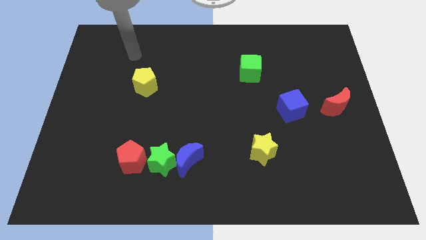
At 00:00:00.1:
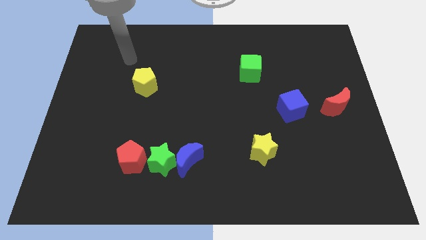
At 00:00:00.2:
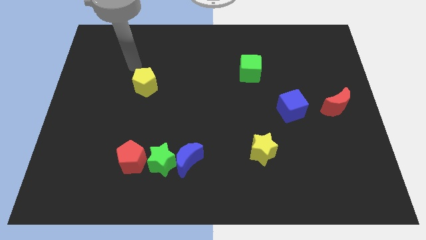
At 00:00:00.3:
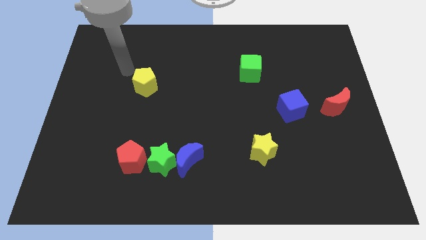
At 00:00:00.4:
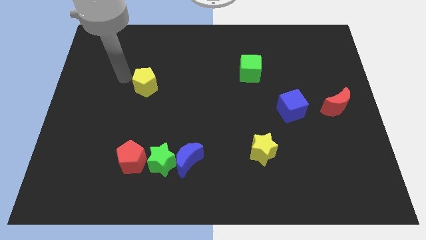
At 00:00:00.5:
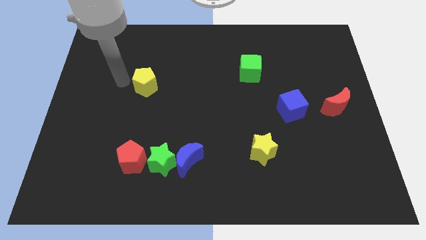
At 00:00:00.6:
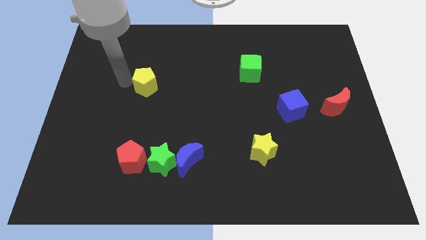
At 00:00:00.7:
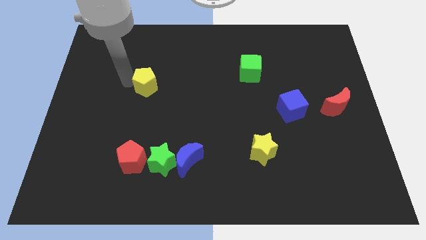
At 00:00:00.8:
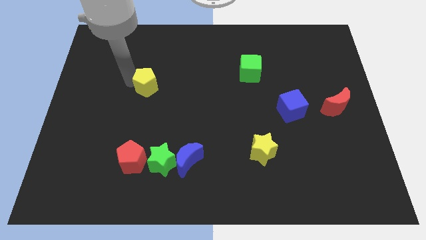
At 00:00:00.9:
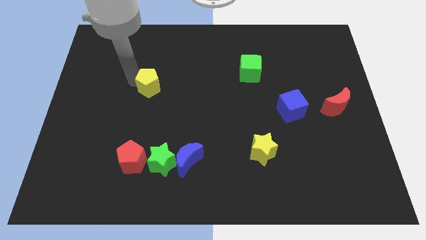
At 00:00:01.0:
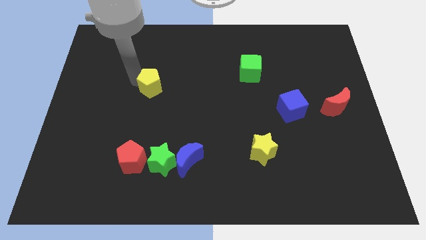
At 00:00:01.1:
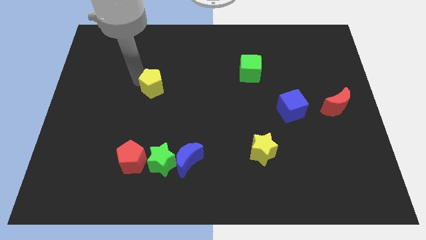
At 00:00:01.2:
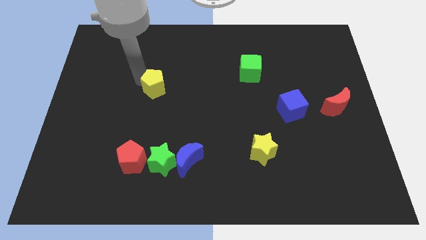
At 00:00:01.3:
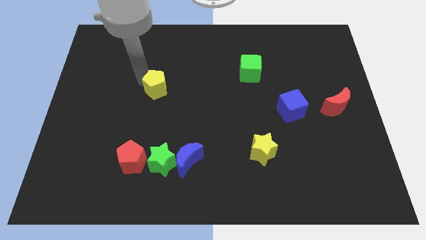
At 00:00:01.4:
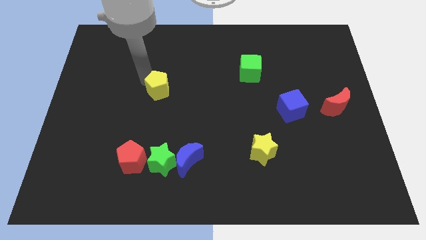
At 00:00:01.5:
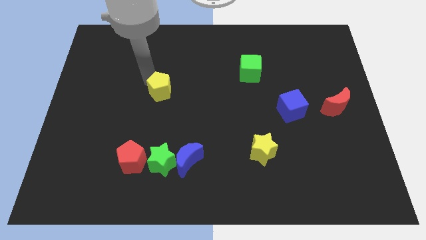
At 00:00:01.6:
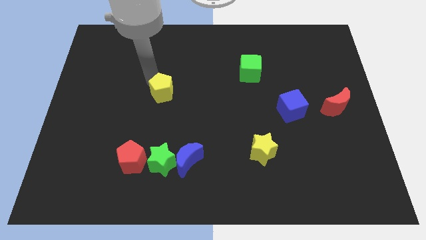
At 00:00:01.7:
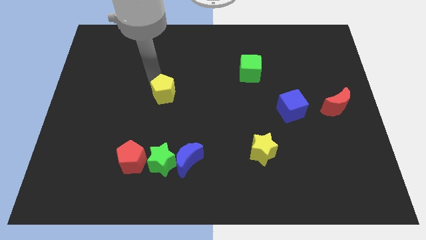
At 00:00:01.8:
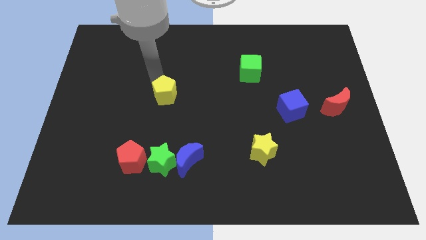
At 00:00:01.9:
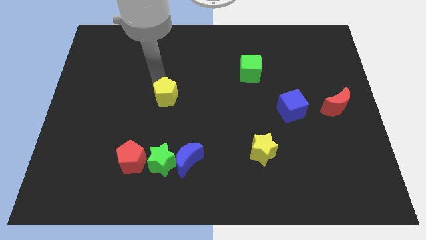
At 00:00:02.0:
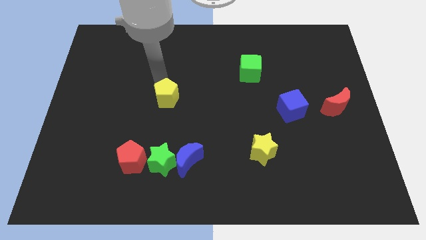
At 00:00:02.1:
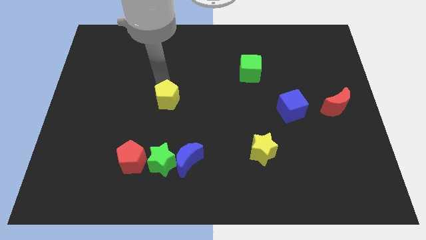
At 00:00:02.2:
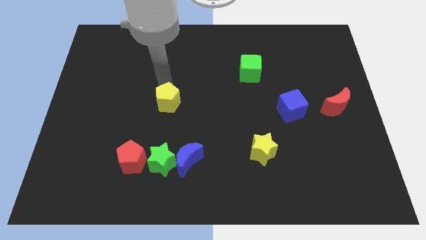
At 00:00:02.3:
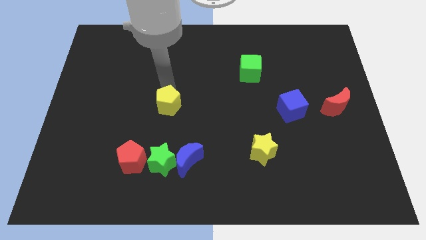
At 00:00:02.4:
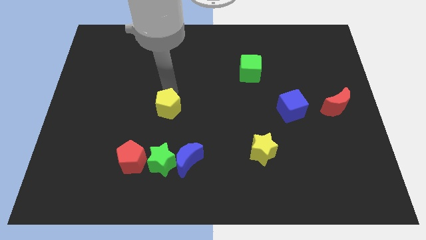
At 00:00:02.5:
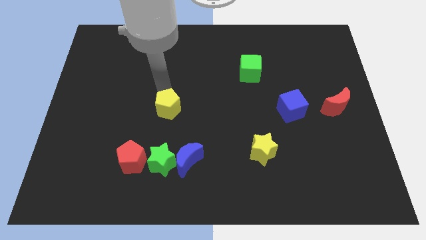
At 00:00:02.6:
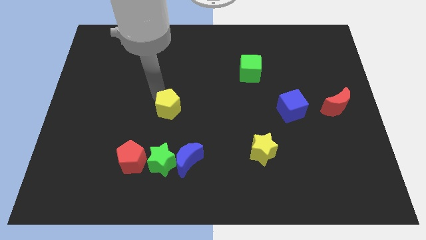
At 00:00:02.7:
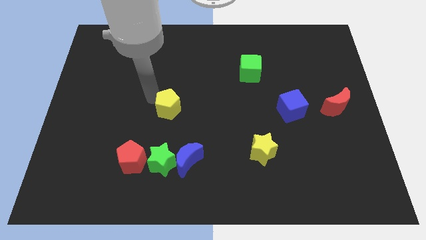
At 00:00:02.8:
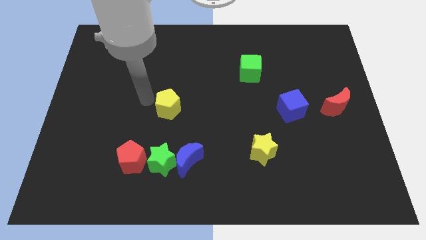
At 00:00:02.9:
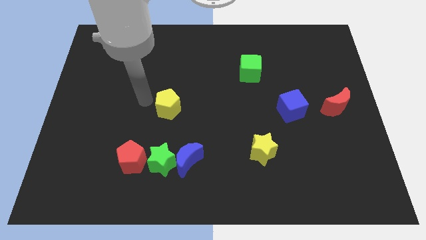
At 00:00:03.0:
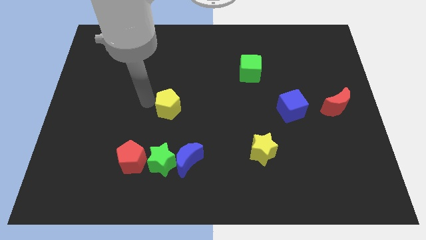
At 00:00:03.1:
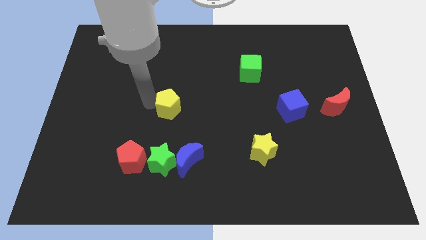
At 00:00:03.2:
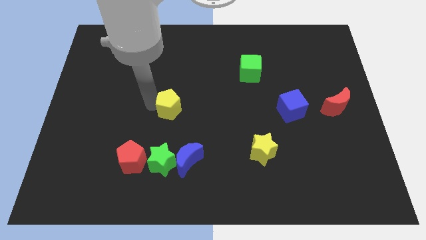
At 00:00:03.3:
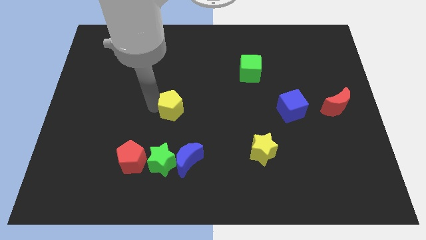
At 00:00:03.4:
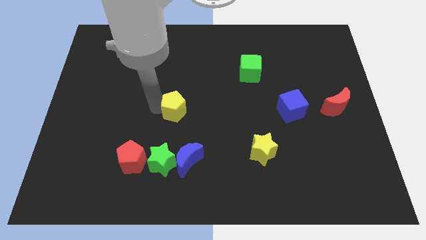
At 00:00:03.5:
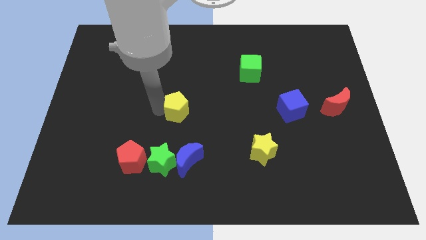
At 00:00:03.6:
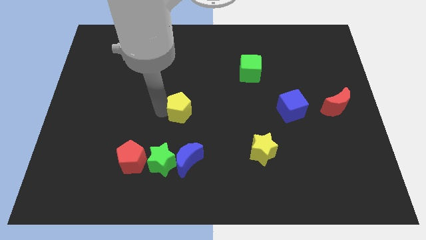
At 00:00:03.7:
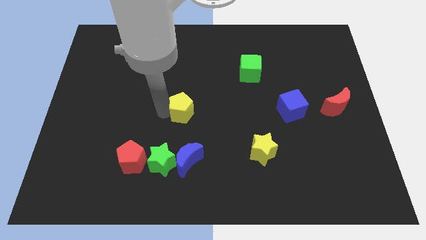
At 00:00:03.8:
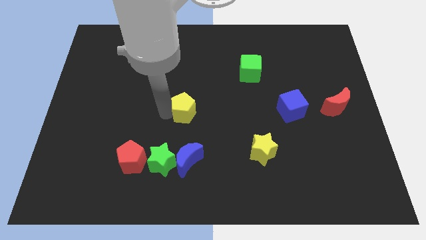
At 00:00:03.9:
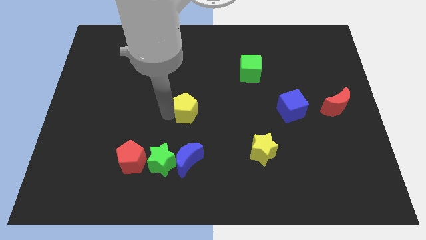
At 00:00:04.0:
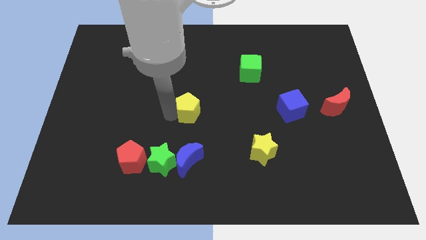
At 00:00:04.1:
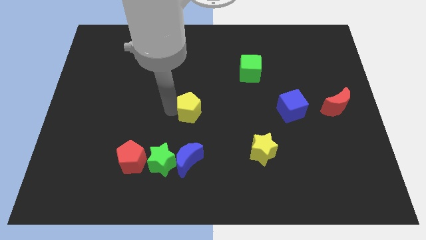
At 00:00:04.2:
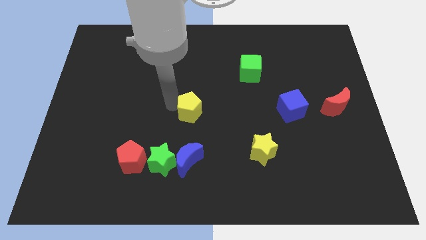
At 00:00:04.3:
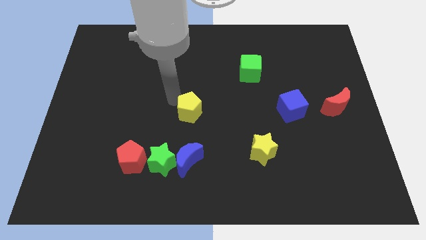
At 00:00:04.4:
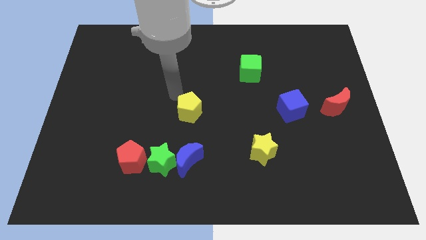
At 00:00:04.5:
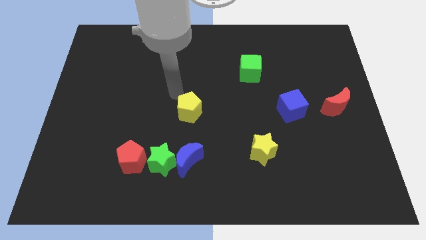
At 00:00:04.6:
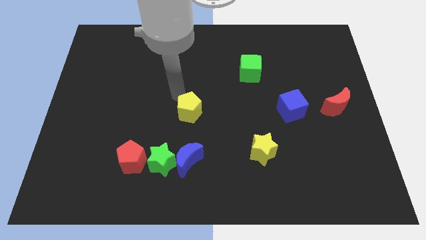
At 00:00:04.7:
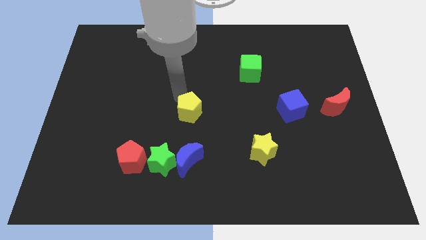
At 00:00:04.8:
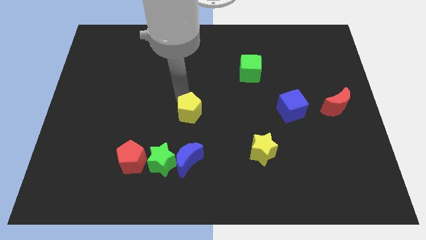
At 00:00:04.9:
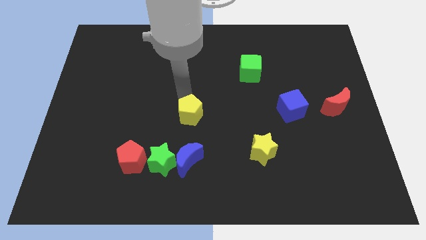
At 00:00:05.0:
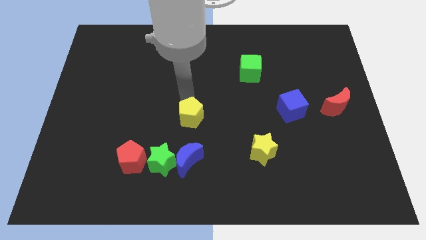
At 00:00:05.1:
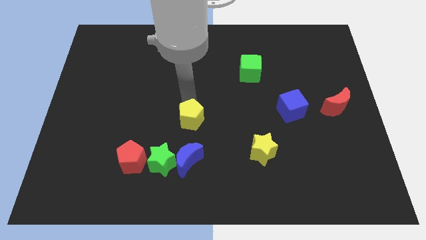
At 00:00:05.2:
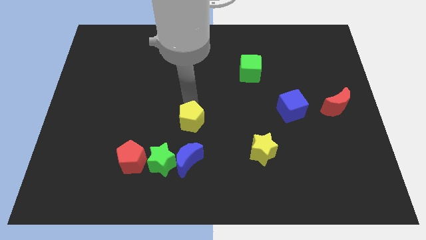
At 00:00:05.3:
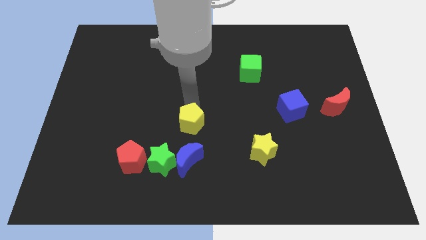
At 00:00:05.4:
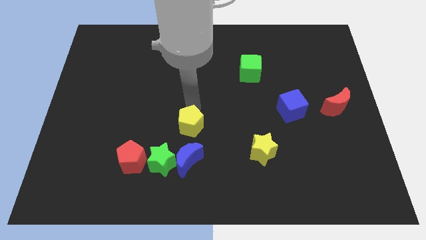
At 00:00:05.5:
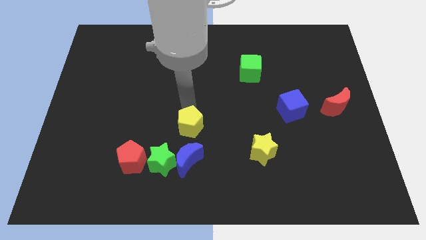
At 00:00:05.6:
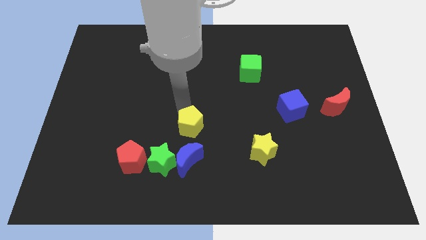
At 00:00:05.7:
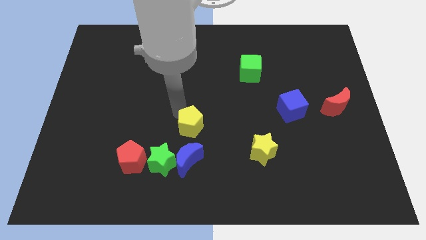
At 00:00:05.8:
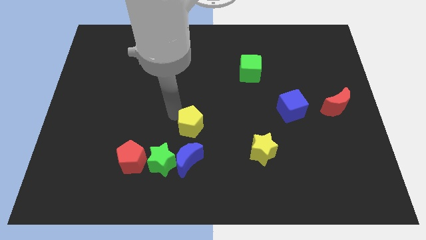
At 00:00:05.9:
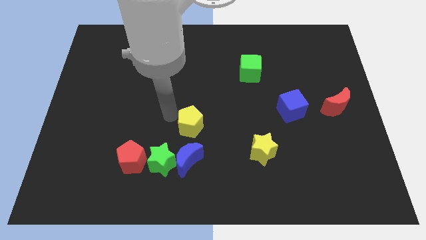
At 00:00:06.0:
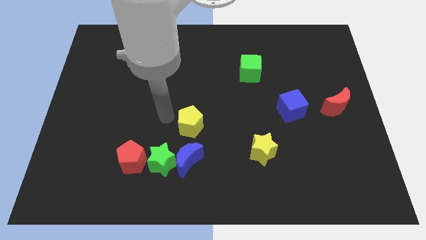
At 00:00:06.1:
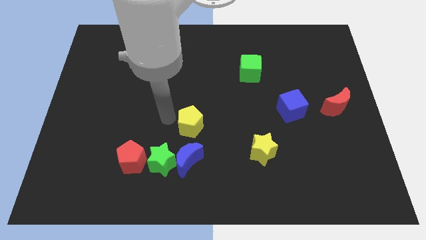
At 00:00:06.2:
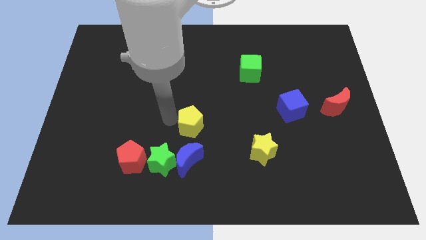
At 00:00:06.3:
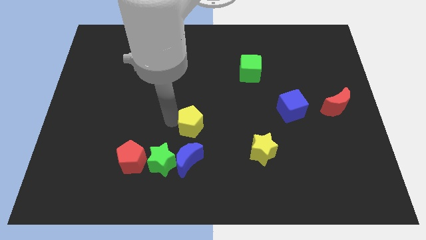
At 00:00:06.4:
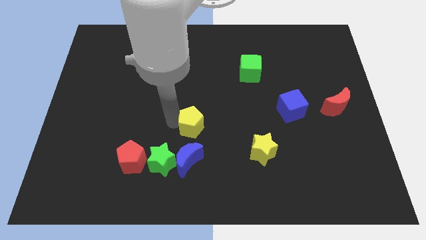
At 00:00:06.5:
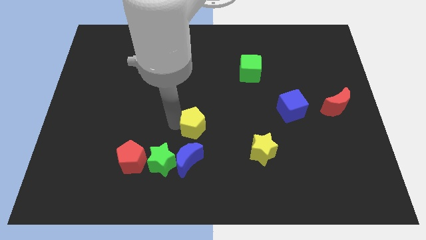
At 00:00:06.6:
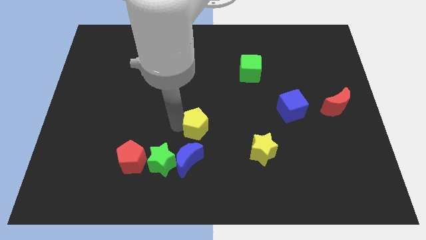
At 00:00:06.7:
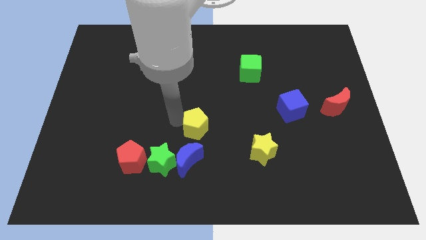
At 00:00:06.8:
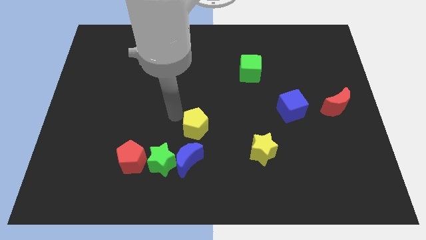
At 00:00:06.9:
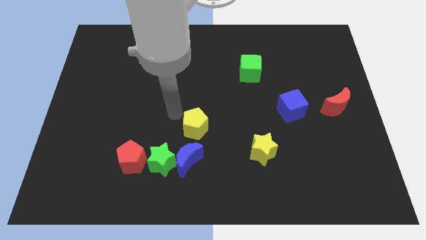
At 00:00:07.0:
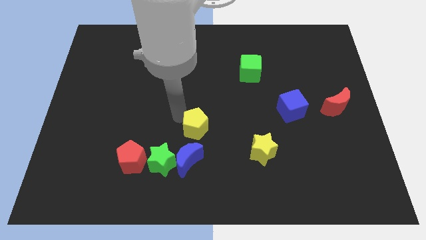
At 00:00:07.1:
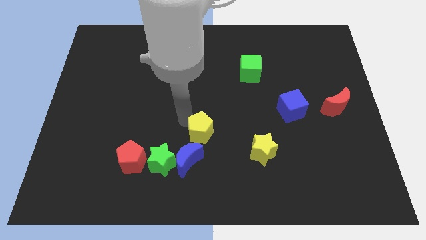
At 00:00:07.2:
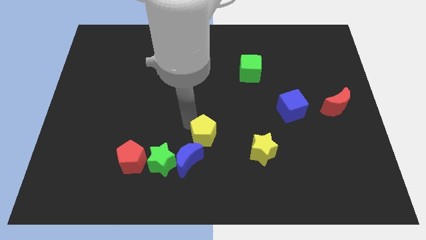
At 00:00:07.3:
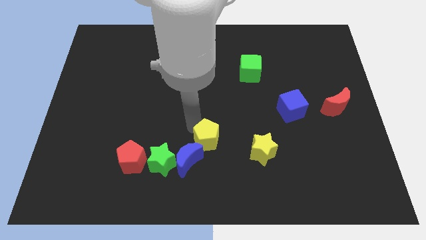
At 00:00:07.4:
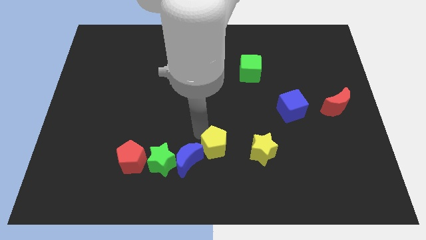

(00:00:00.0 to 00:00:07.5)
slide the yellow pentagon just right of the blue moon
